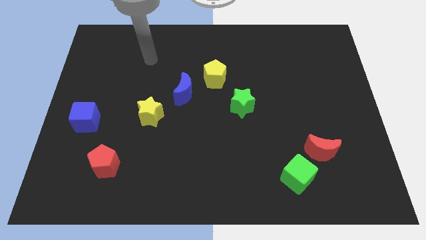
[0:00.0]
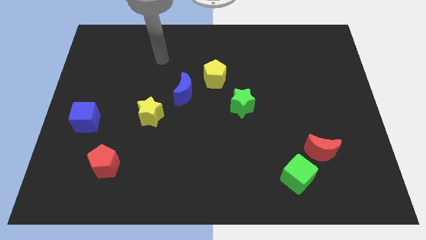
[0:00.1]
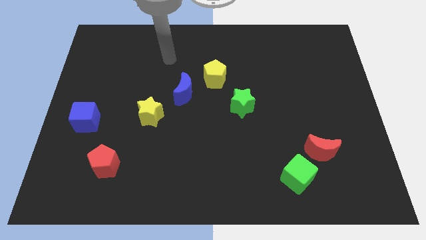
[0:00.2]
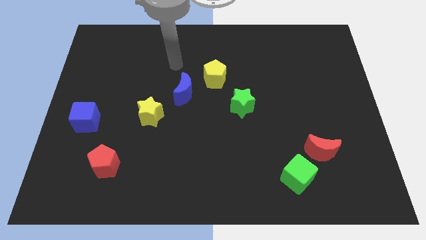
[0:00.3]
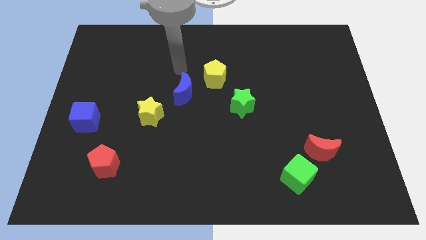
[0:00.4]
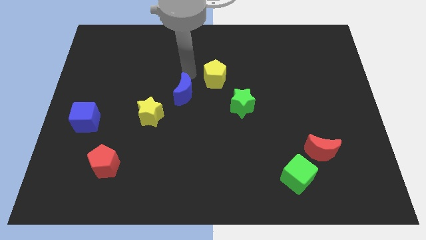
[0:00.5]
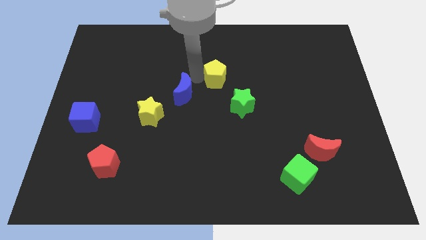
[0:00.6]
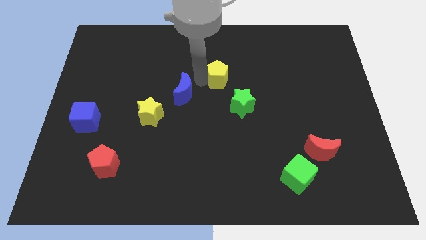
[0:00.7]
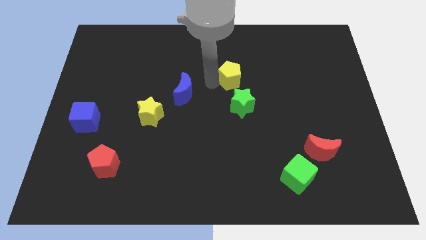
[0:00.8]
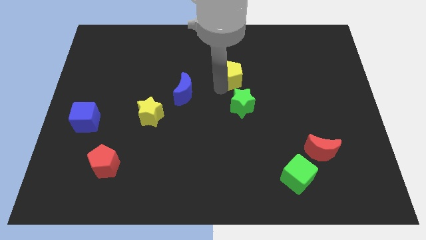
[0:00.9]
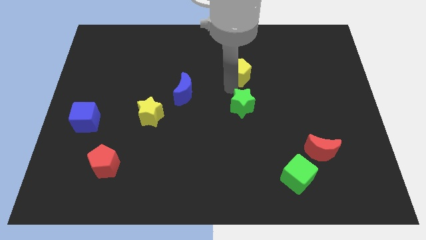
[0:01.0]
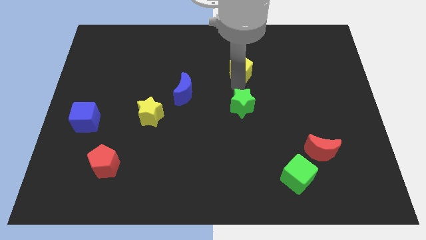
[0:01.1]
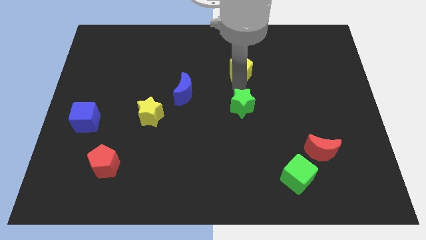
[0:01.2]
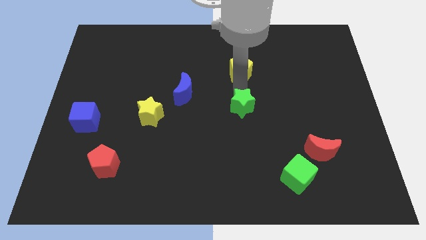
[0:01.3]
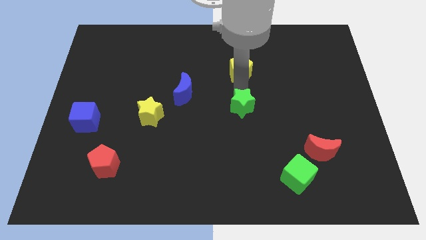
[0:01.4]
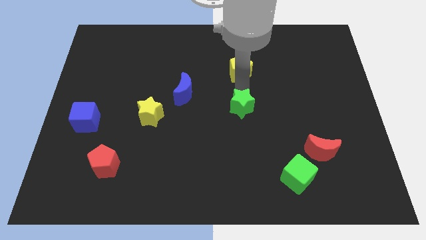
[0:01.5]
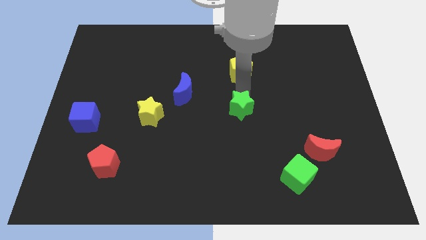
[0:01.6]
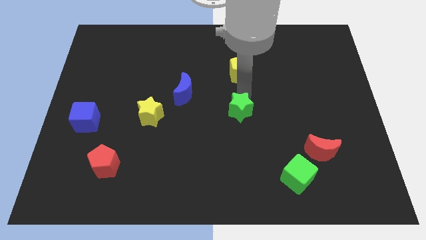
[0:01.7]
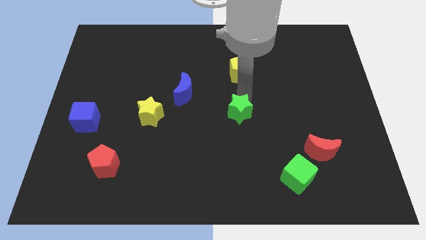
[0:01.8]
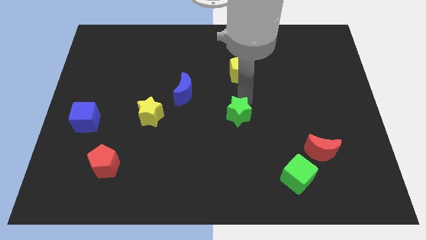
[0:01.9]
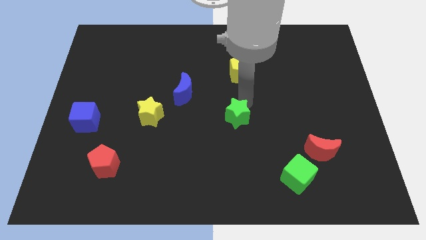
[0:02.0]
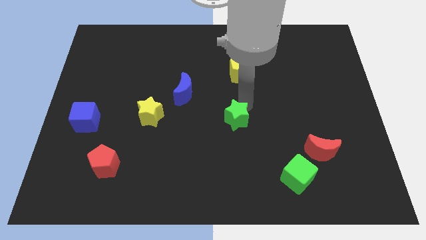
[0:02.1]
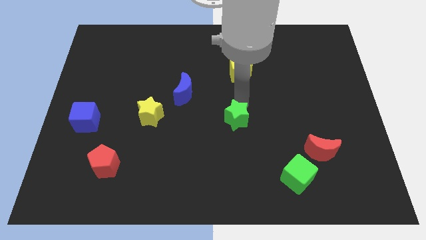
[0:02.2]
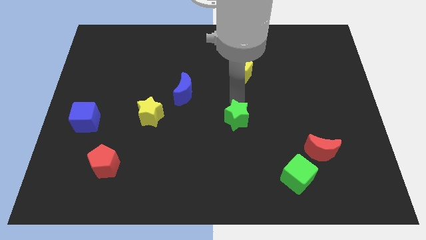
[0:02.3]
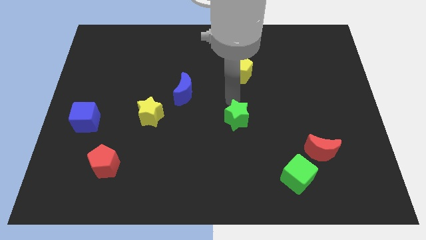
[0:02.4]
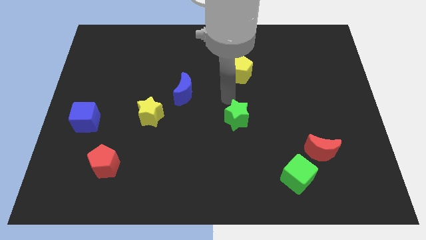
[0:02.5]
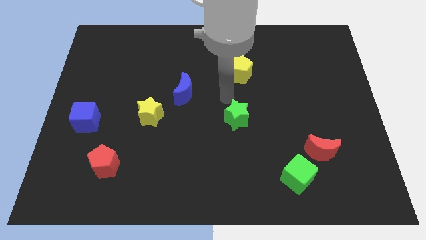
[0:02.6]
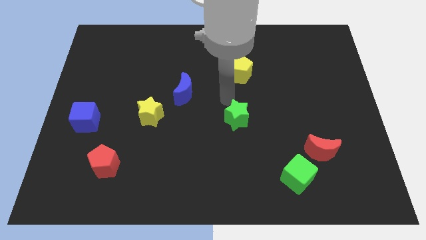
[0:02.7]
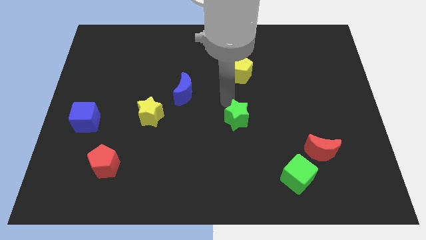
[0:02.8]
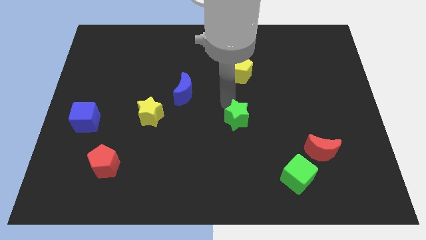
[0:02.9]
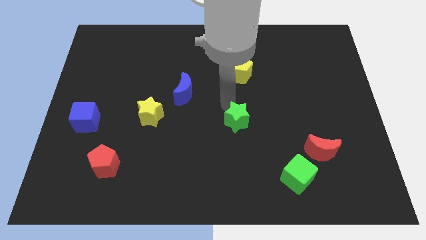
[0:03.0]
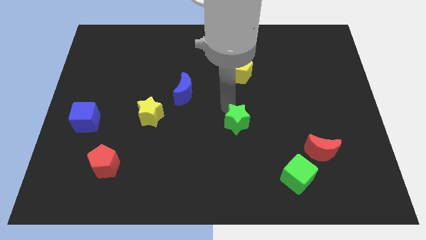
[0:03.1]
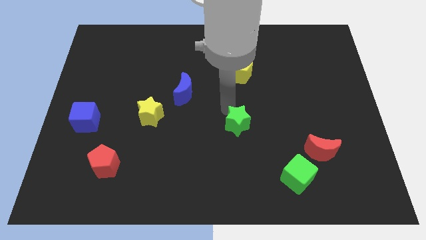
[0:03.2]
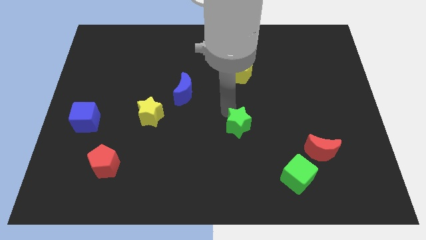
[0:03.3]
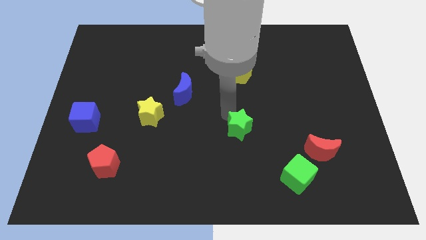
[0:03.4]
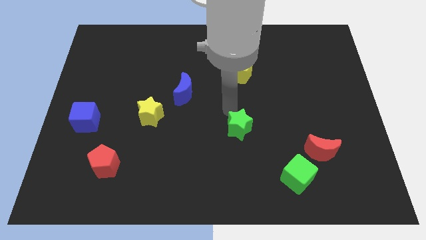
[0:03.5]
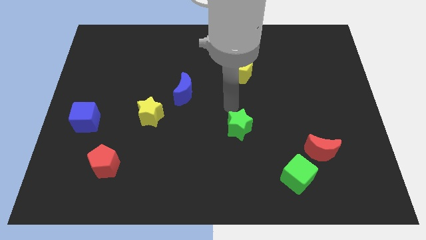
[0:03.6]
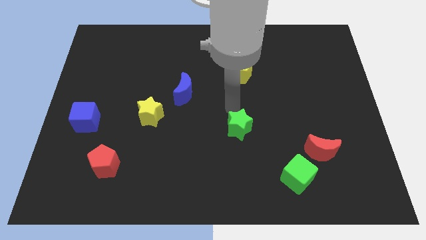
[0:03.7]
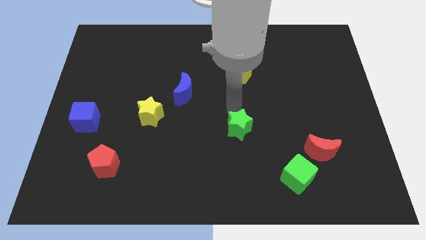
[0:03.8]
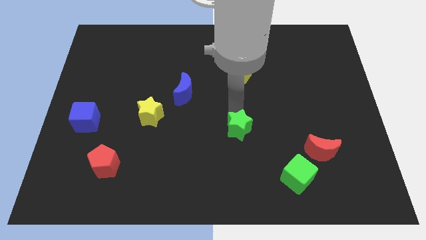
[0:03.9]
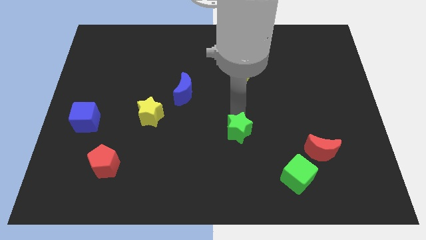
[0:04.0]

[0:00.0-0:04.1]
slide the green star downwards slightly

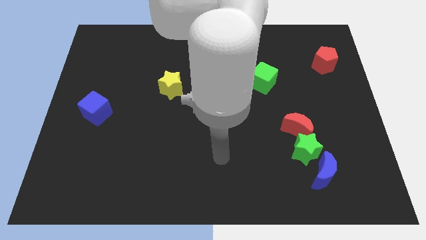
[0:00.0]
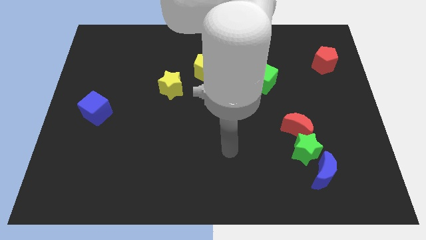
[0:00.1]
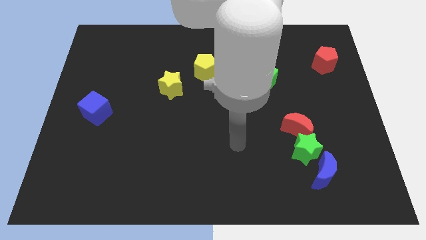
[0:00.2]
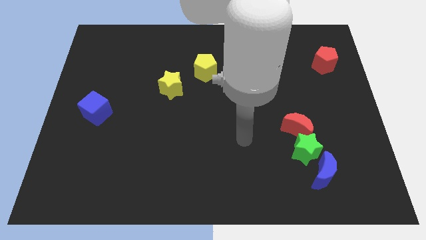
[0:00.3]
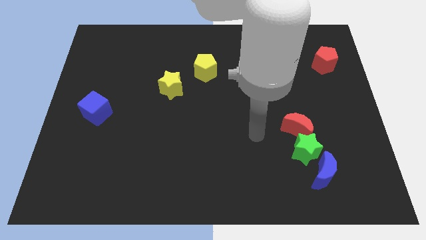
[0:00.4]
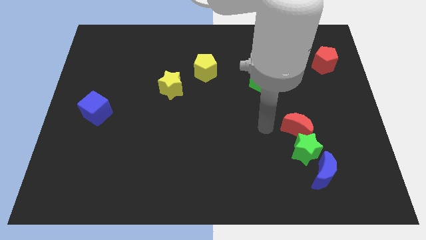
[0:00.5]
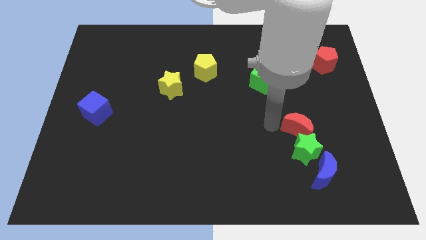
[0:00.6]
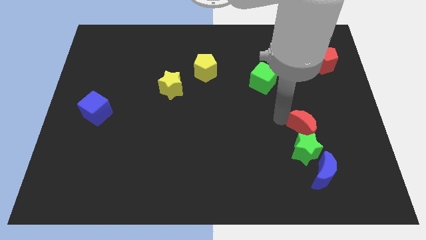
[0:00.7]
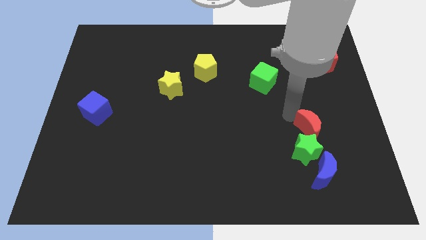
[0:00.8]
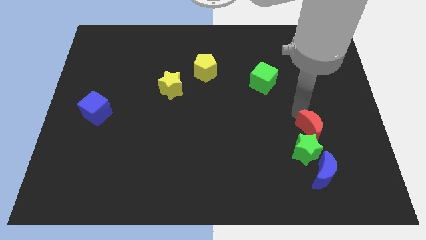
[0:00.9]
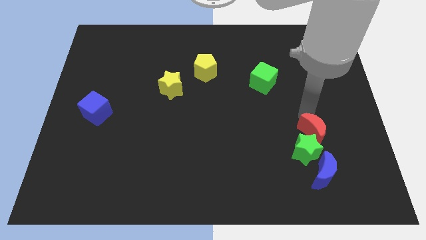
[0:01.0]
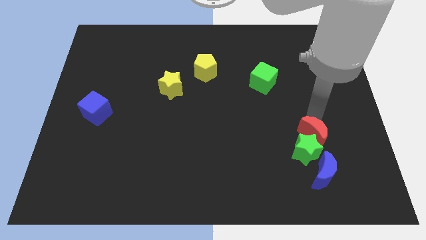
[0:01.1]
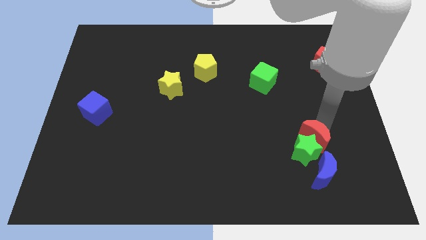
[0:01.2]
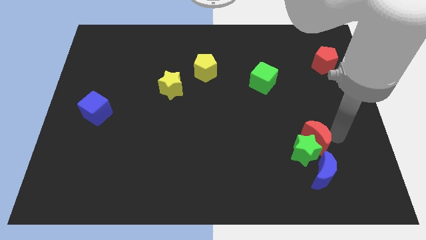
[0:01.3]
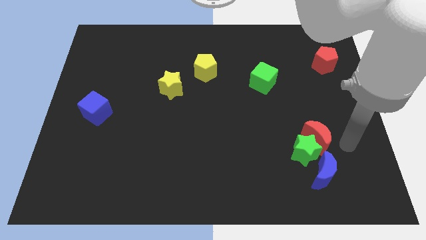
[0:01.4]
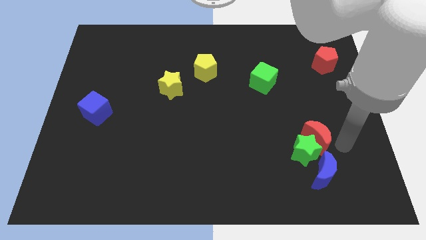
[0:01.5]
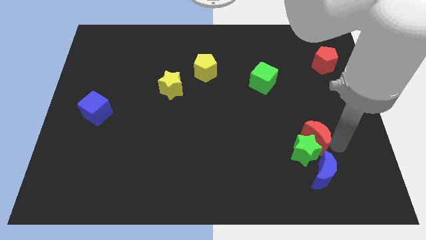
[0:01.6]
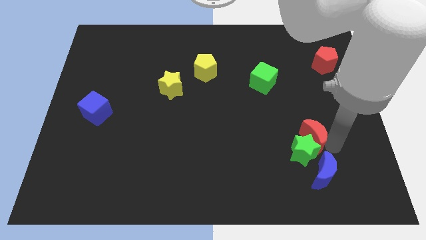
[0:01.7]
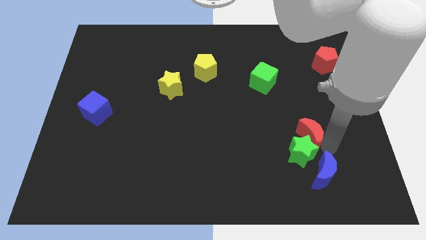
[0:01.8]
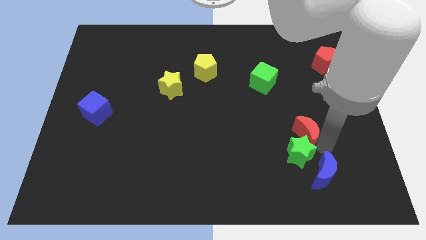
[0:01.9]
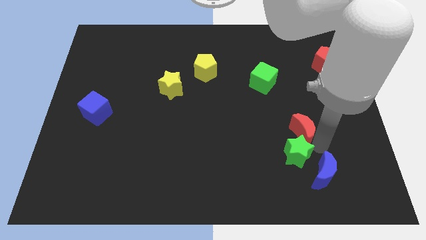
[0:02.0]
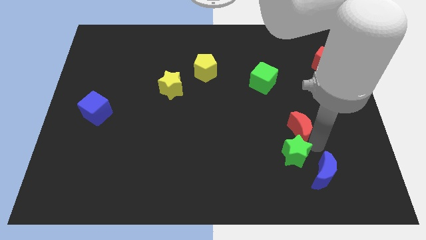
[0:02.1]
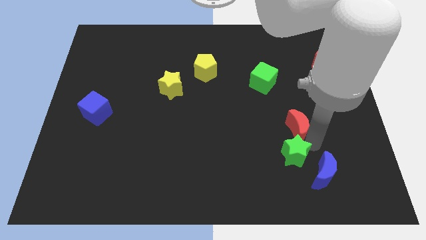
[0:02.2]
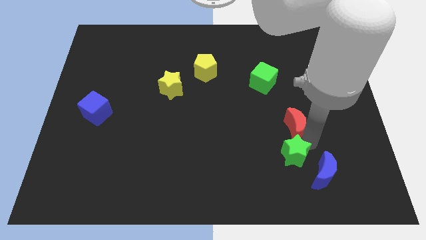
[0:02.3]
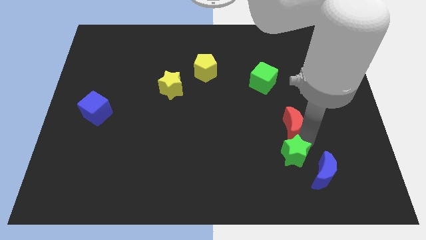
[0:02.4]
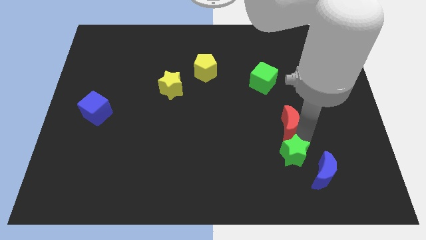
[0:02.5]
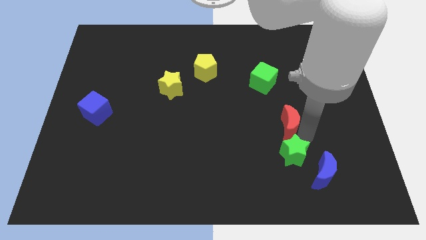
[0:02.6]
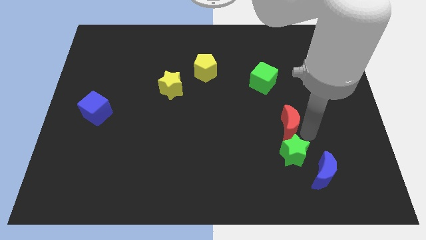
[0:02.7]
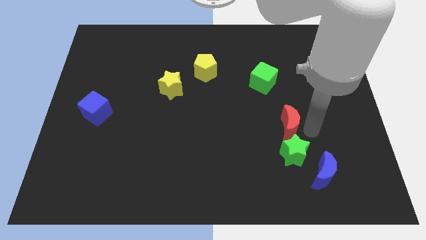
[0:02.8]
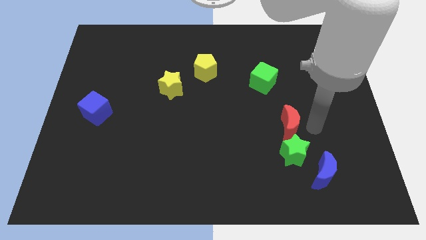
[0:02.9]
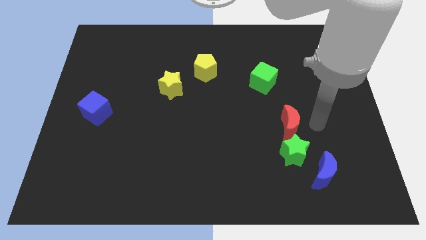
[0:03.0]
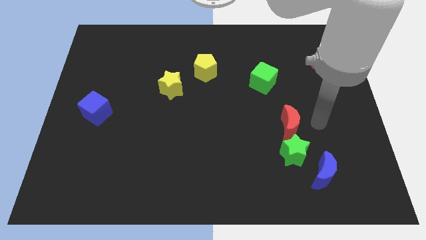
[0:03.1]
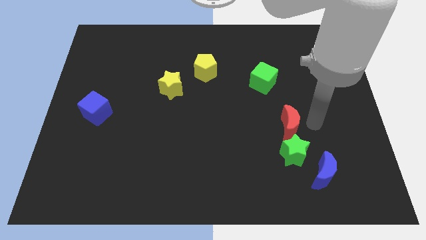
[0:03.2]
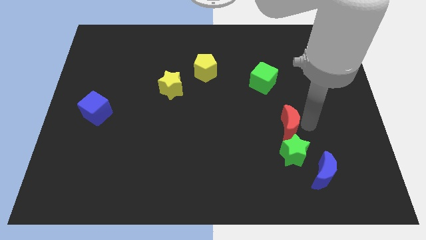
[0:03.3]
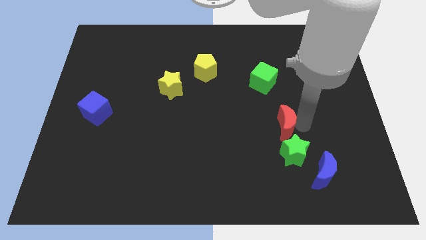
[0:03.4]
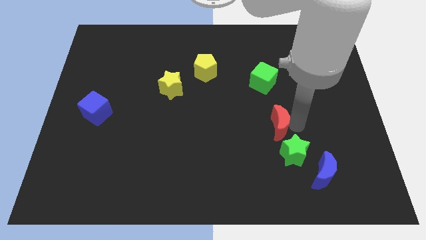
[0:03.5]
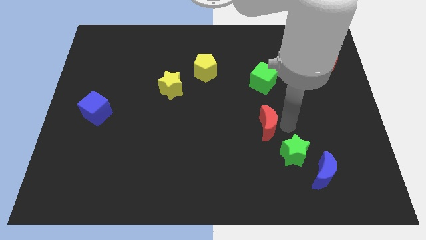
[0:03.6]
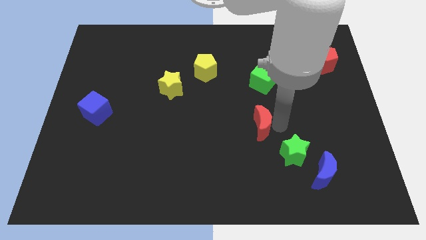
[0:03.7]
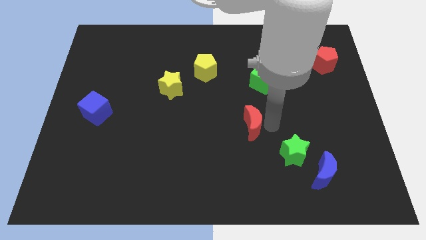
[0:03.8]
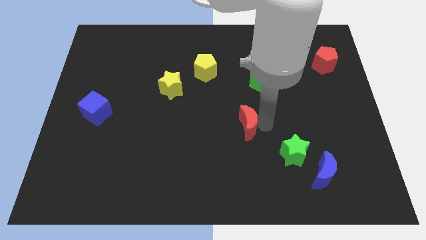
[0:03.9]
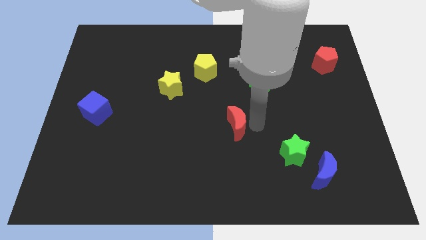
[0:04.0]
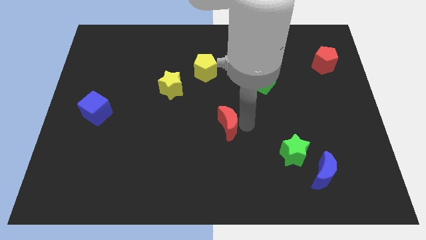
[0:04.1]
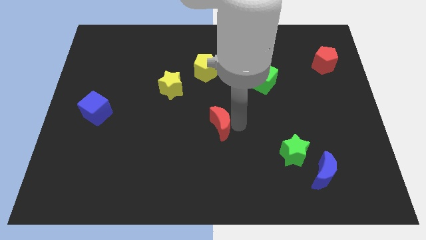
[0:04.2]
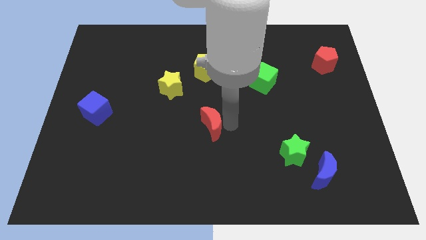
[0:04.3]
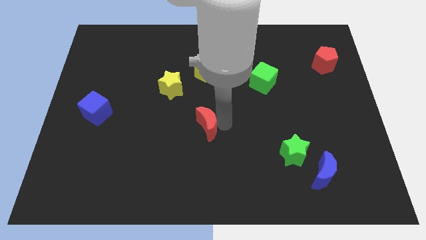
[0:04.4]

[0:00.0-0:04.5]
push the red moon left
